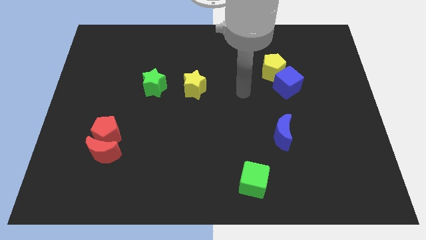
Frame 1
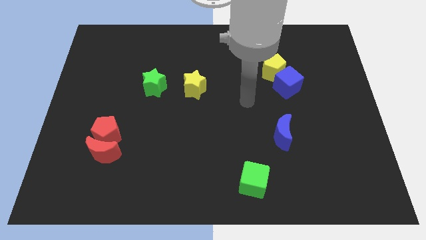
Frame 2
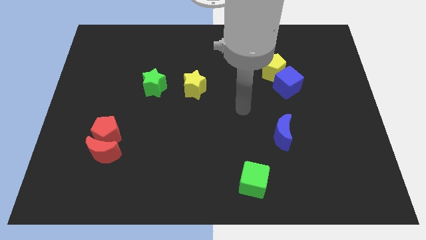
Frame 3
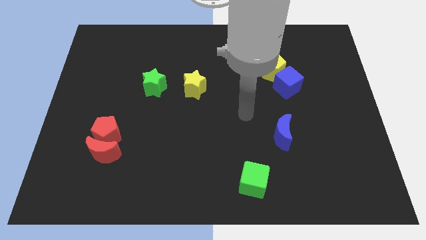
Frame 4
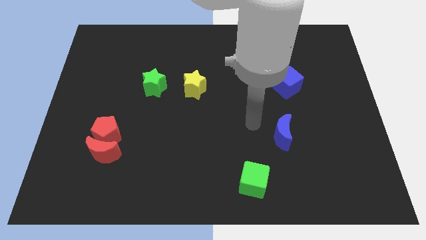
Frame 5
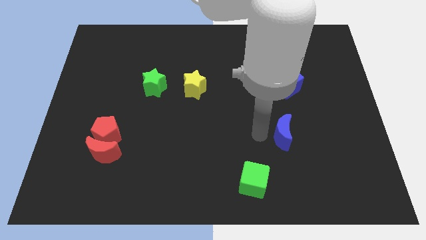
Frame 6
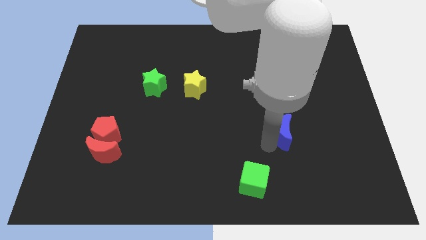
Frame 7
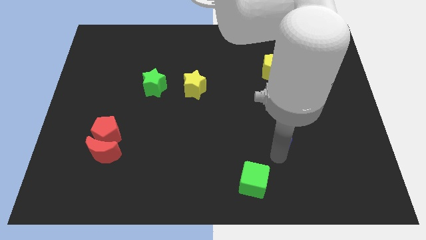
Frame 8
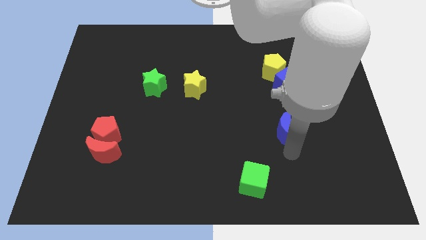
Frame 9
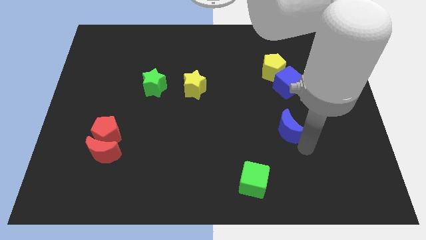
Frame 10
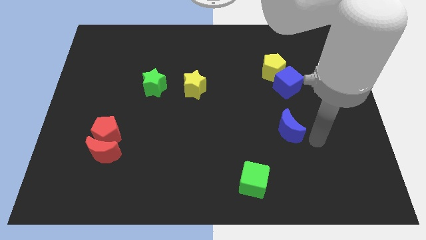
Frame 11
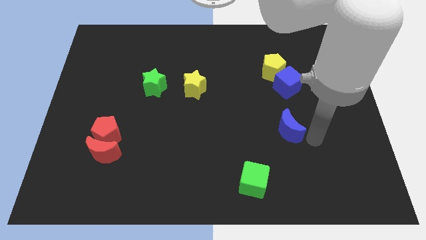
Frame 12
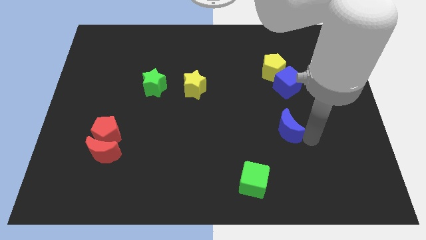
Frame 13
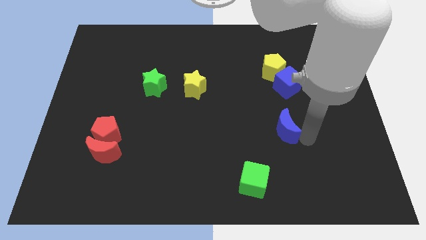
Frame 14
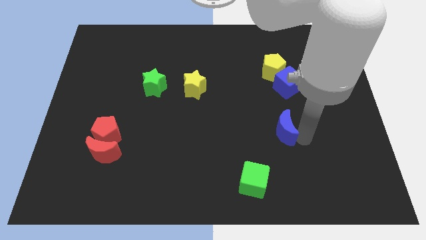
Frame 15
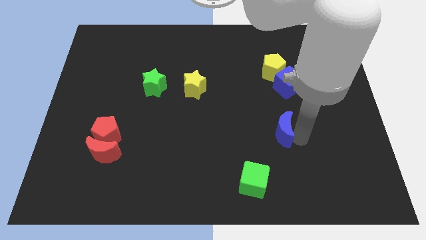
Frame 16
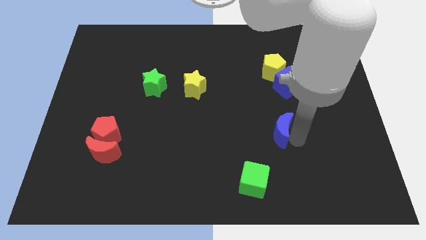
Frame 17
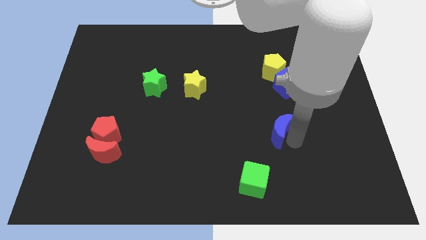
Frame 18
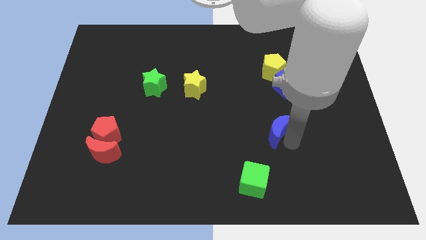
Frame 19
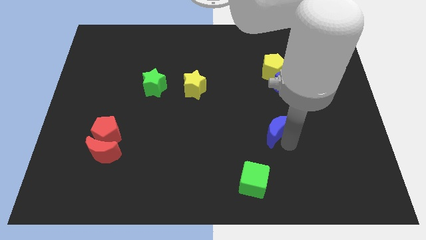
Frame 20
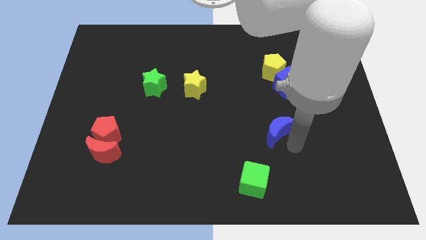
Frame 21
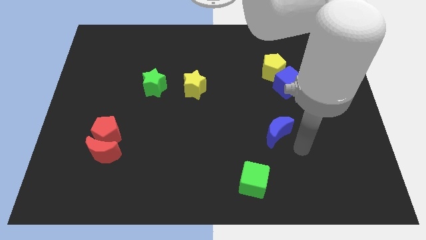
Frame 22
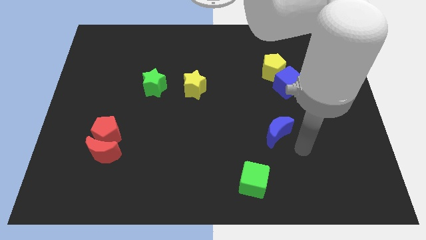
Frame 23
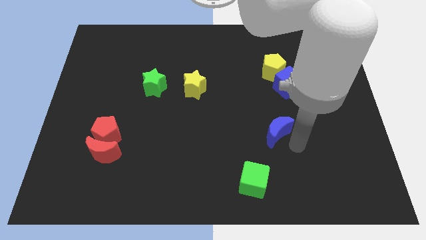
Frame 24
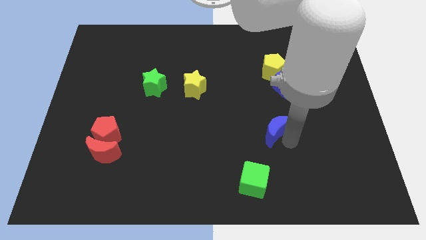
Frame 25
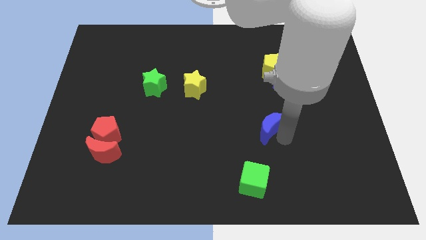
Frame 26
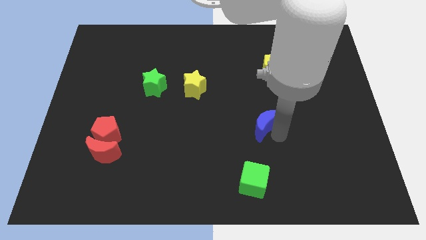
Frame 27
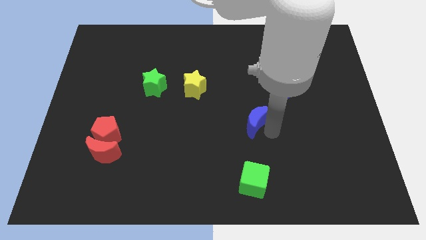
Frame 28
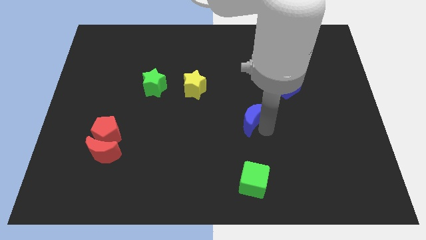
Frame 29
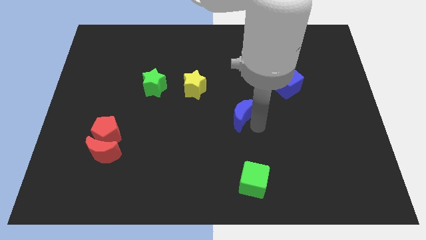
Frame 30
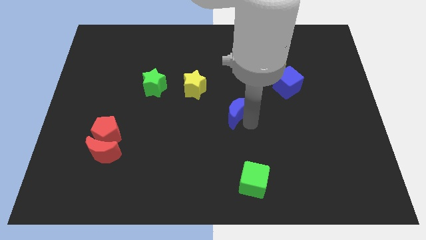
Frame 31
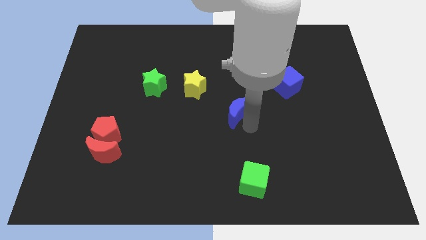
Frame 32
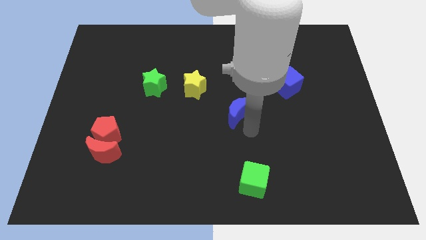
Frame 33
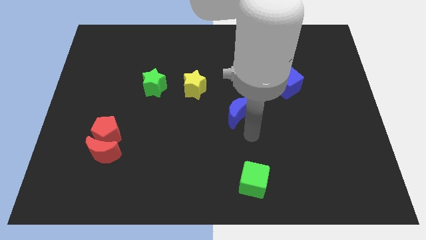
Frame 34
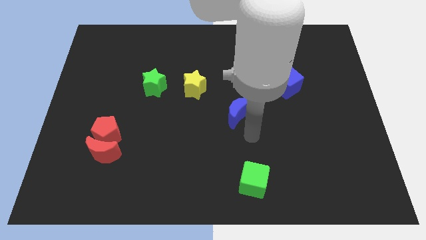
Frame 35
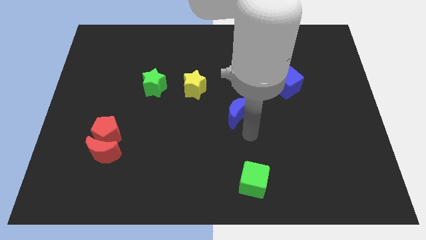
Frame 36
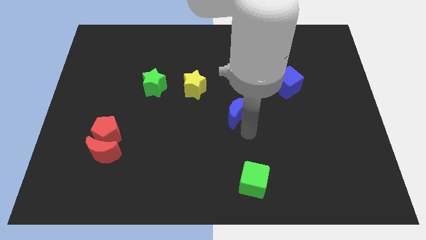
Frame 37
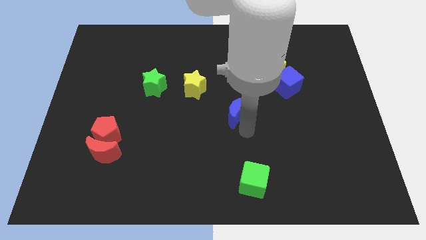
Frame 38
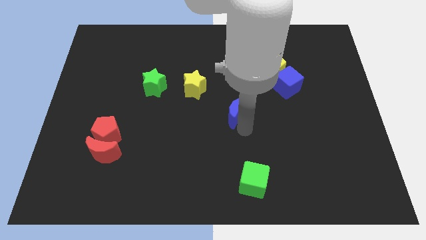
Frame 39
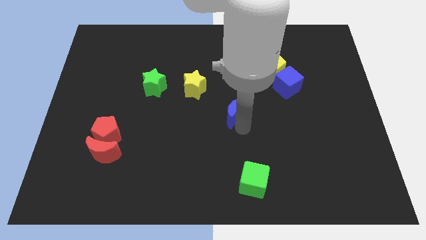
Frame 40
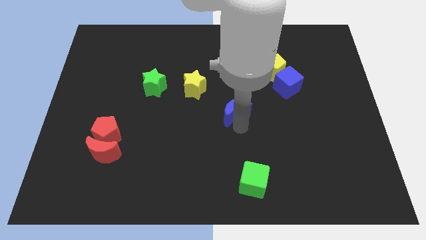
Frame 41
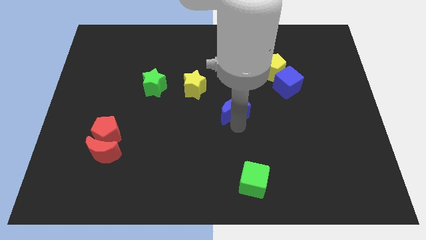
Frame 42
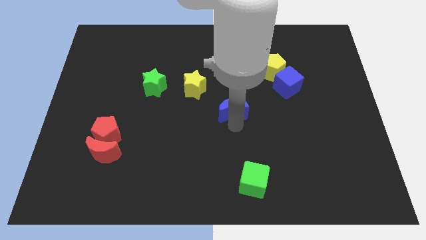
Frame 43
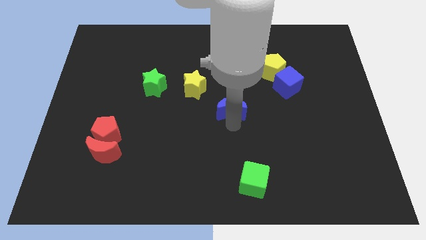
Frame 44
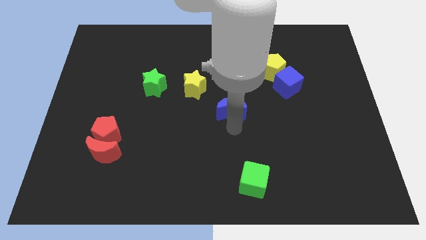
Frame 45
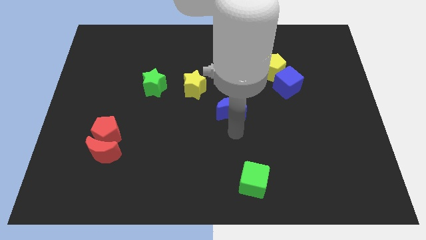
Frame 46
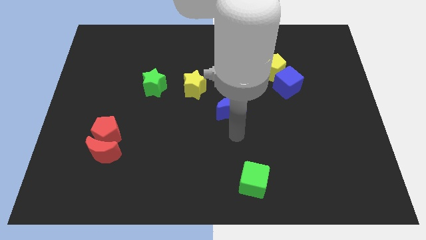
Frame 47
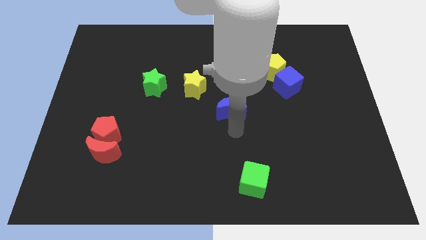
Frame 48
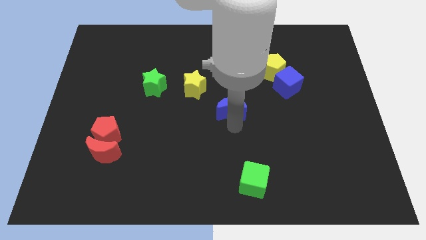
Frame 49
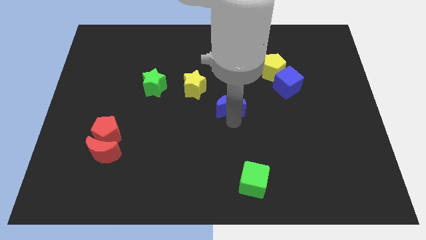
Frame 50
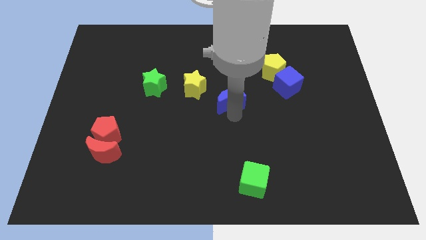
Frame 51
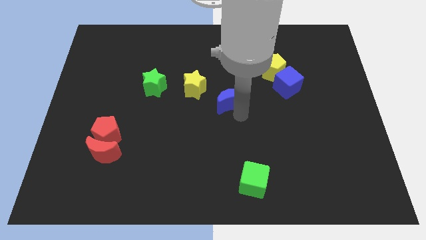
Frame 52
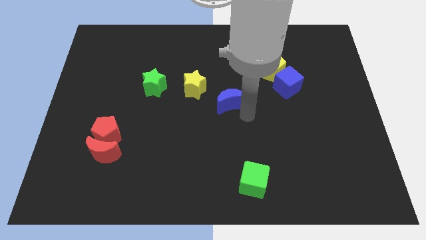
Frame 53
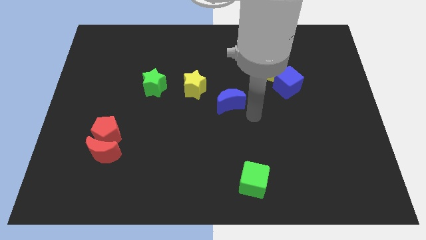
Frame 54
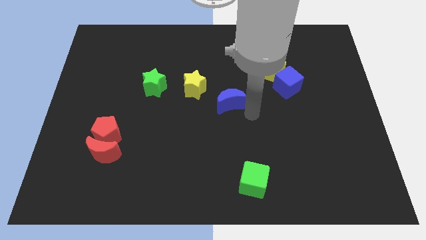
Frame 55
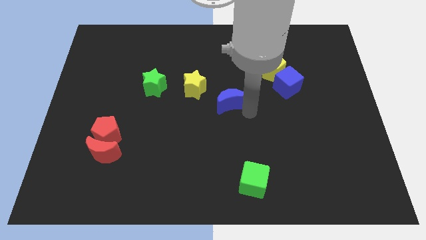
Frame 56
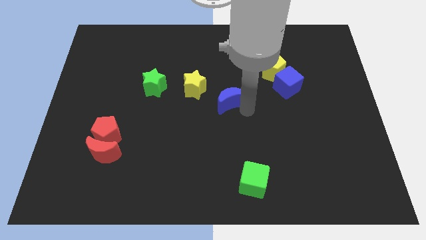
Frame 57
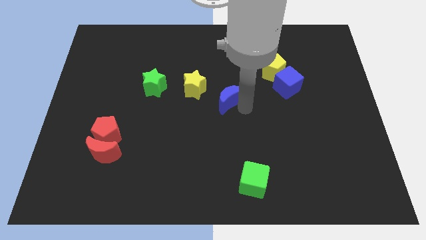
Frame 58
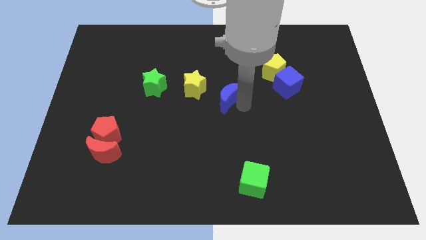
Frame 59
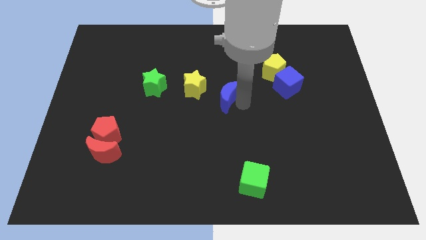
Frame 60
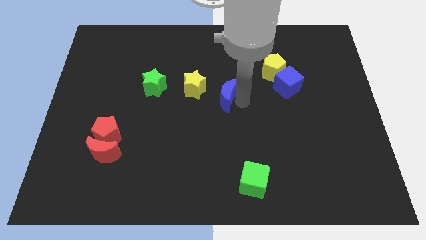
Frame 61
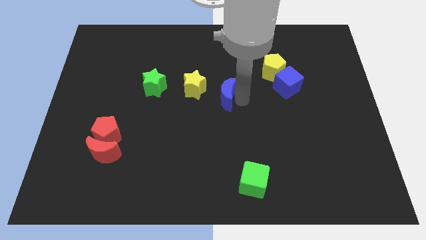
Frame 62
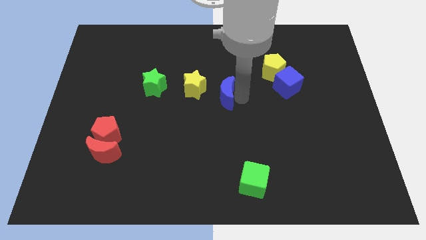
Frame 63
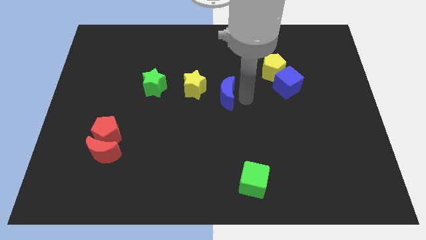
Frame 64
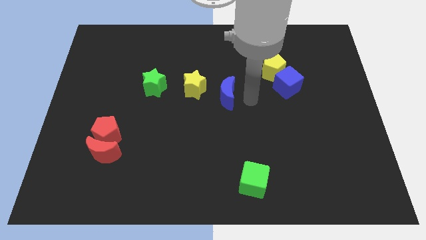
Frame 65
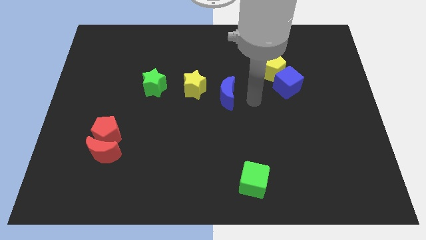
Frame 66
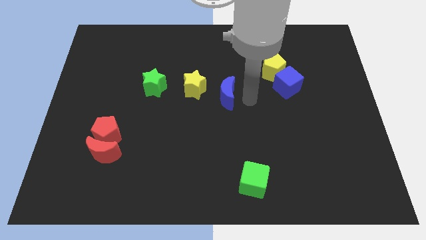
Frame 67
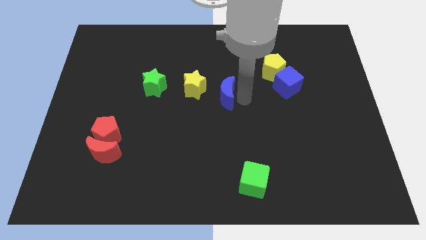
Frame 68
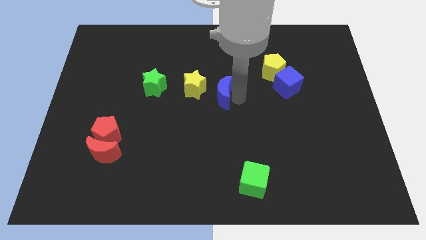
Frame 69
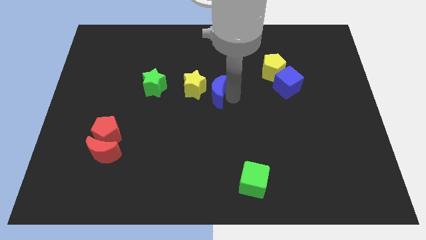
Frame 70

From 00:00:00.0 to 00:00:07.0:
slide the blue moon towards the yellow star
